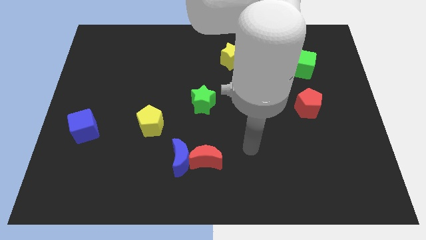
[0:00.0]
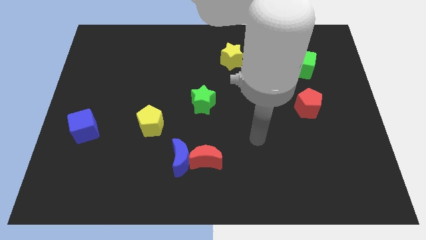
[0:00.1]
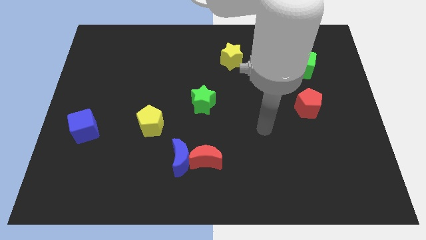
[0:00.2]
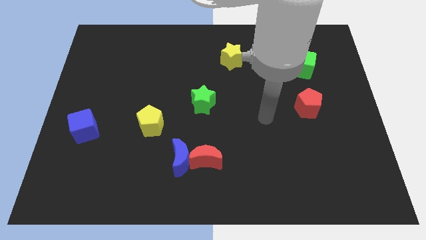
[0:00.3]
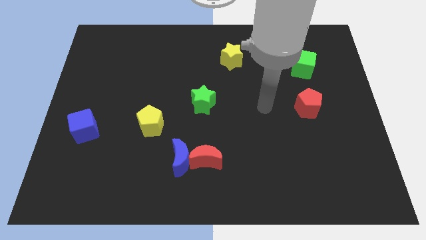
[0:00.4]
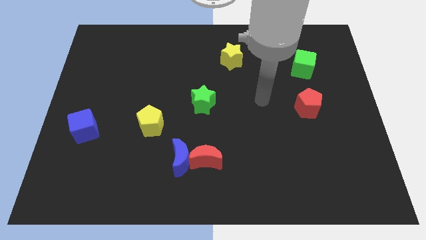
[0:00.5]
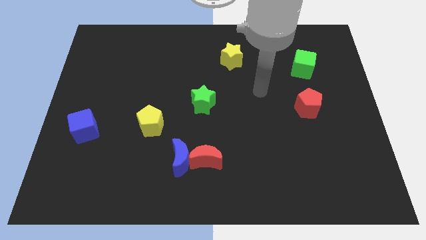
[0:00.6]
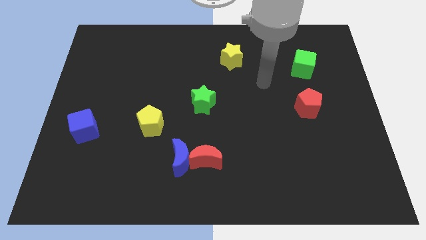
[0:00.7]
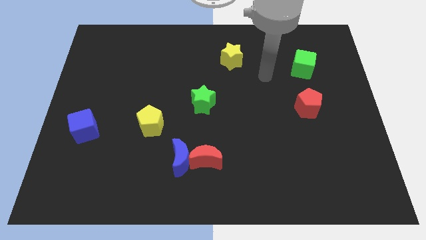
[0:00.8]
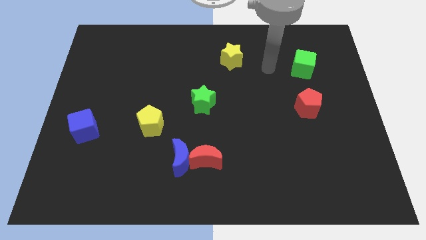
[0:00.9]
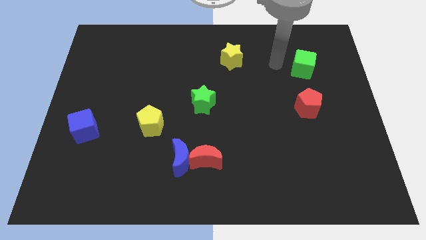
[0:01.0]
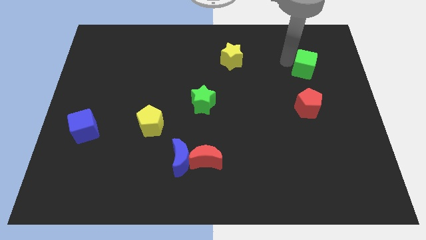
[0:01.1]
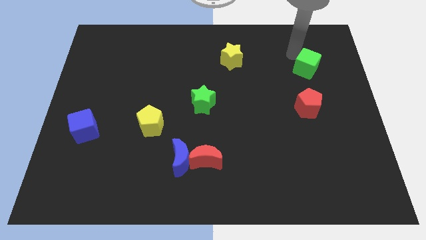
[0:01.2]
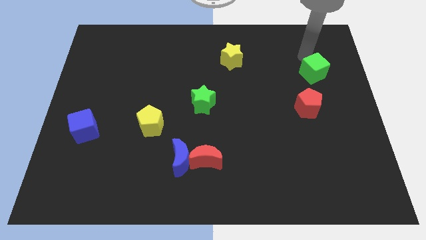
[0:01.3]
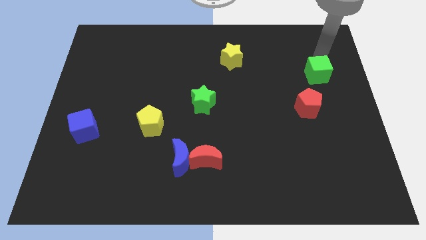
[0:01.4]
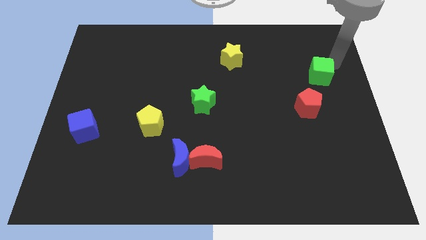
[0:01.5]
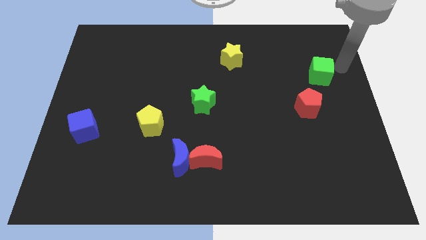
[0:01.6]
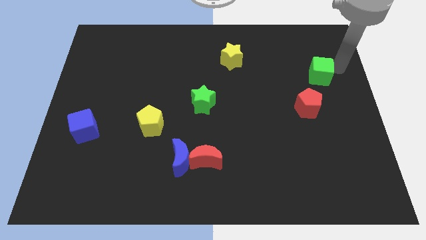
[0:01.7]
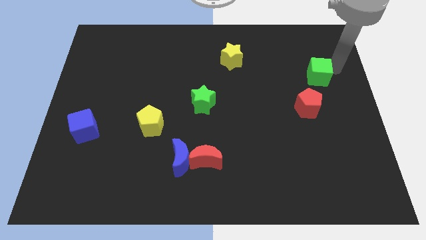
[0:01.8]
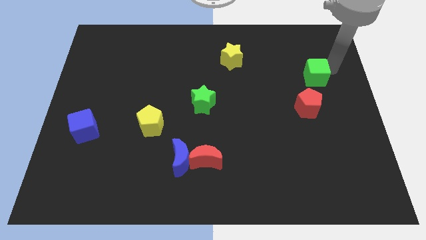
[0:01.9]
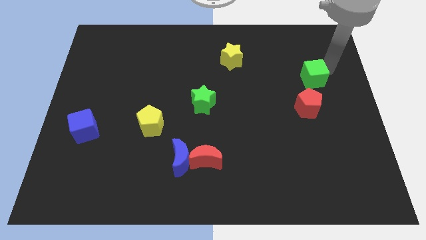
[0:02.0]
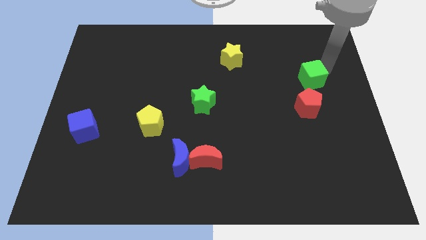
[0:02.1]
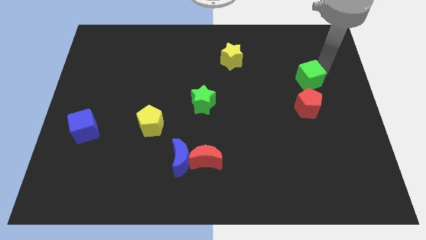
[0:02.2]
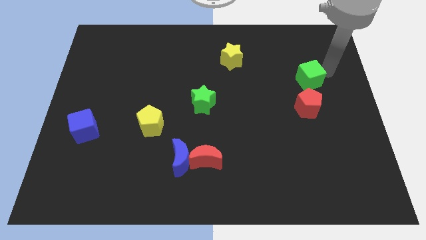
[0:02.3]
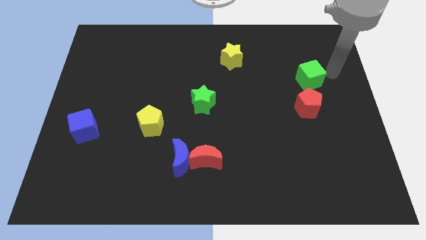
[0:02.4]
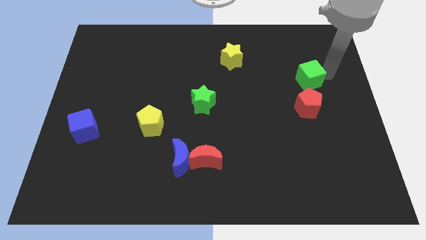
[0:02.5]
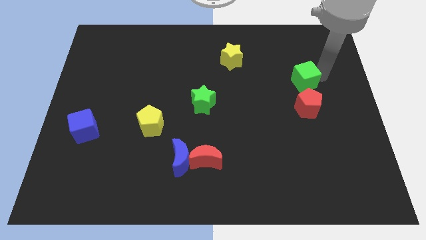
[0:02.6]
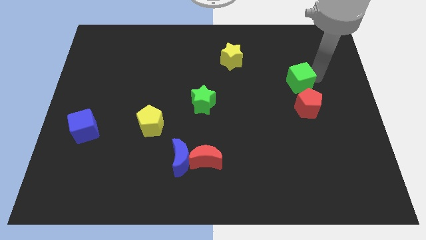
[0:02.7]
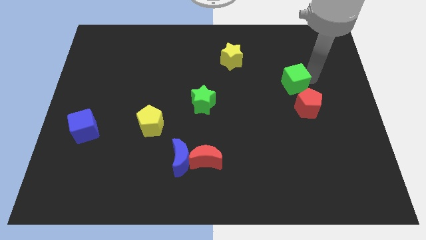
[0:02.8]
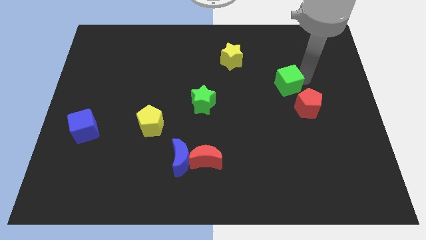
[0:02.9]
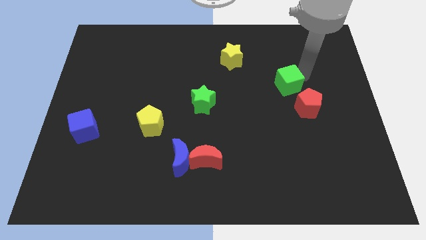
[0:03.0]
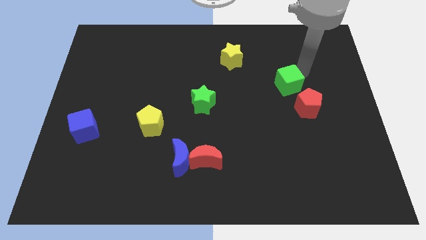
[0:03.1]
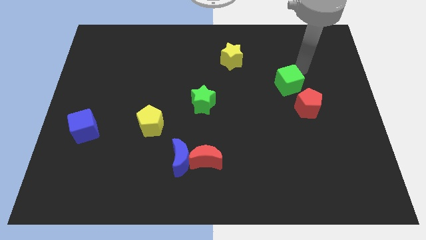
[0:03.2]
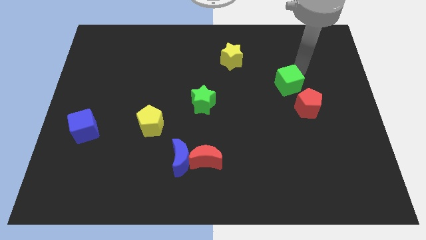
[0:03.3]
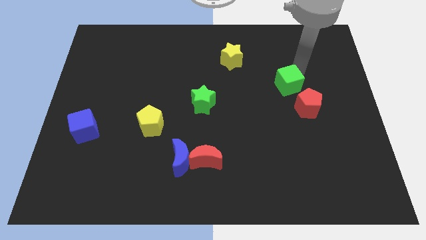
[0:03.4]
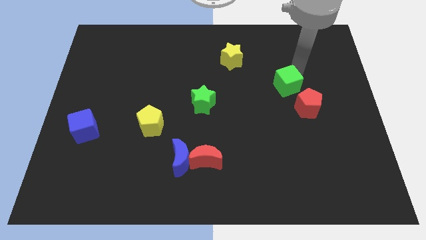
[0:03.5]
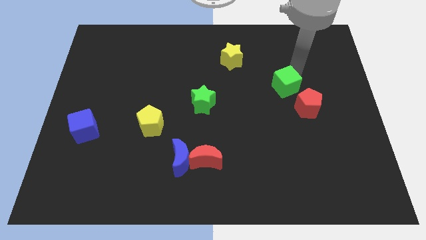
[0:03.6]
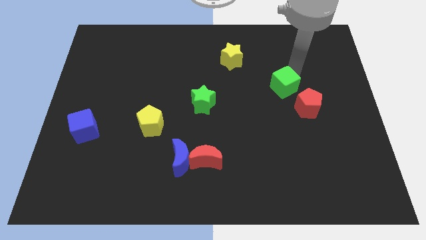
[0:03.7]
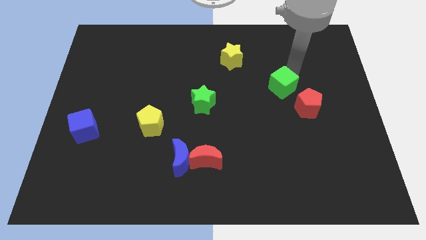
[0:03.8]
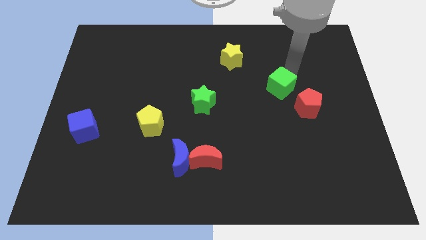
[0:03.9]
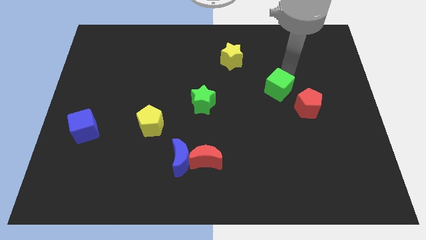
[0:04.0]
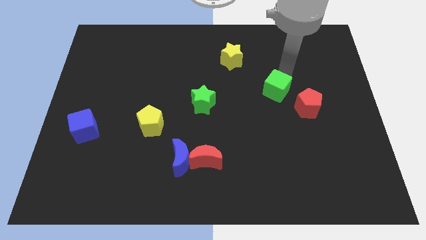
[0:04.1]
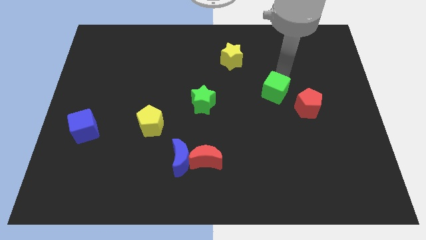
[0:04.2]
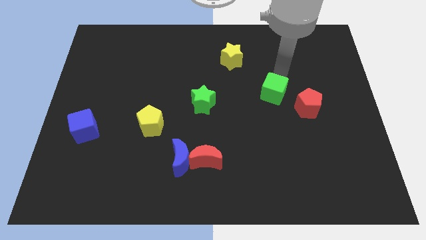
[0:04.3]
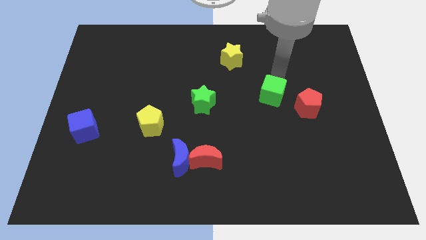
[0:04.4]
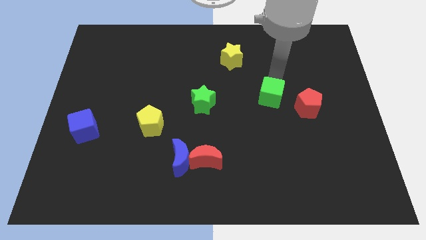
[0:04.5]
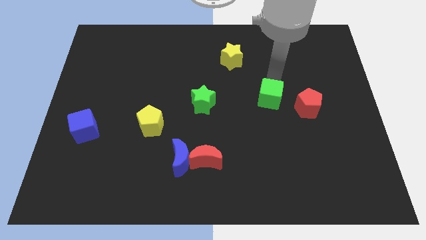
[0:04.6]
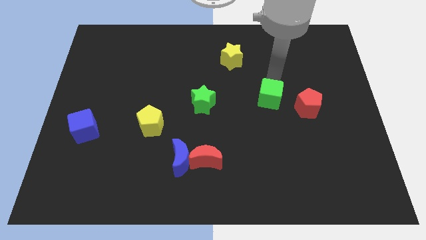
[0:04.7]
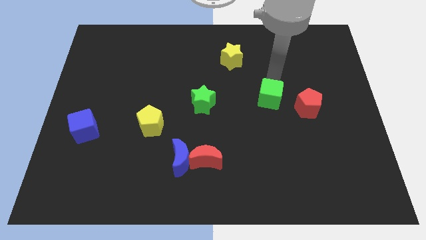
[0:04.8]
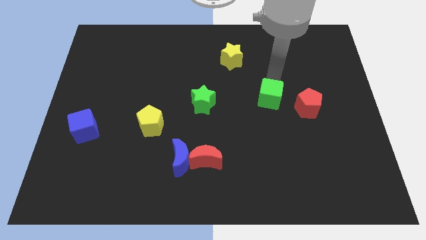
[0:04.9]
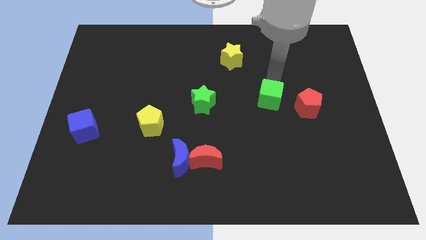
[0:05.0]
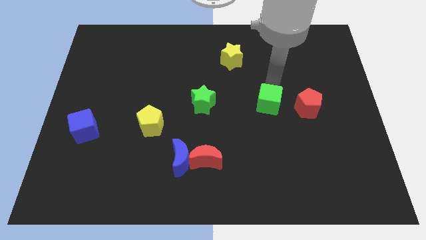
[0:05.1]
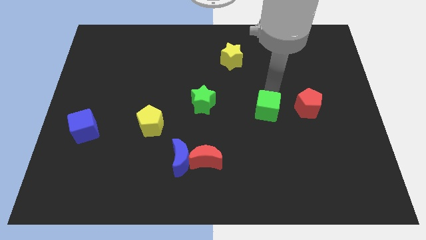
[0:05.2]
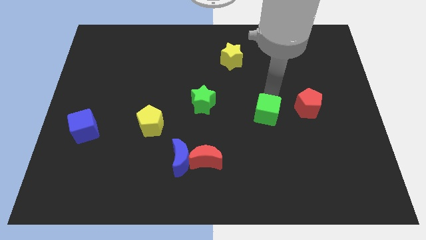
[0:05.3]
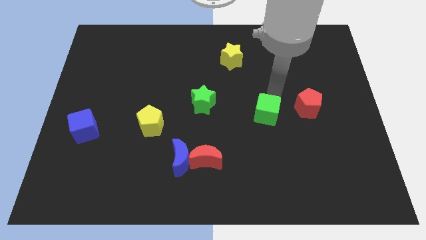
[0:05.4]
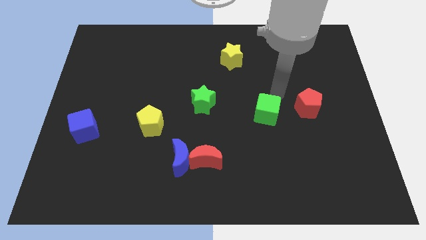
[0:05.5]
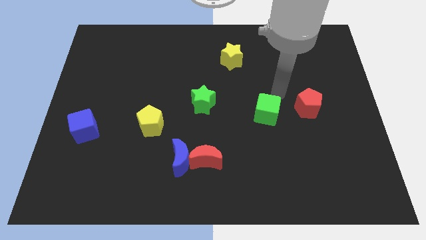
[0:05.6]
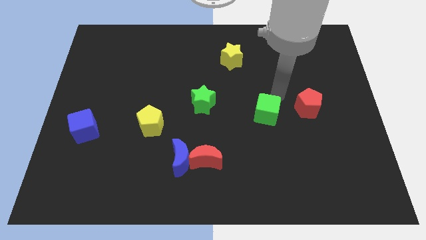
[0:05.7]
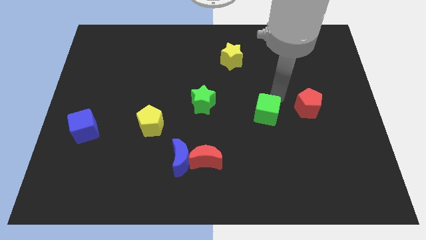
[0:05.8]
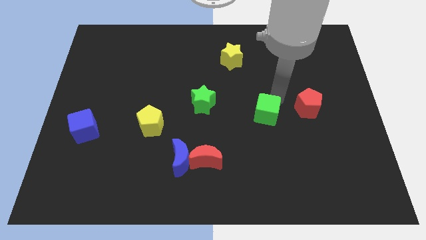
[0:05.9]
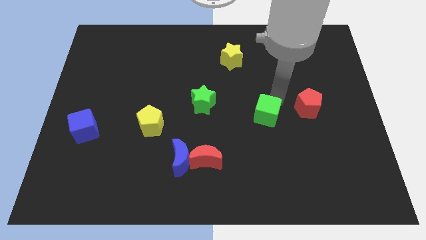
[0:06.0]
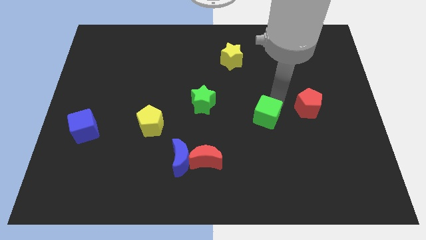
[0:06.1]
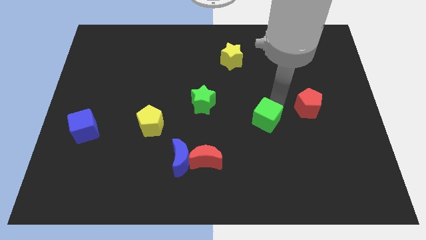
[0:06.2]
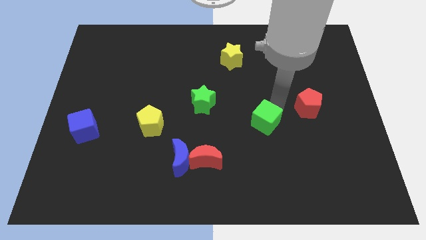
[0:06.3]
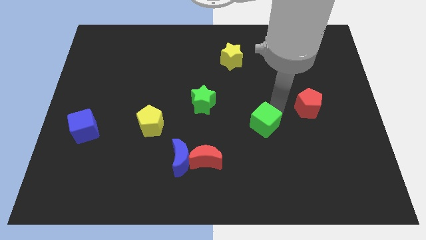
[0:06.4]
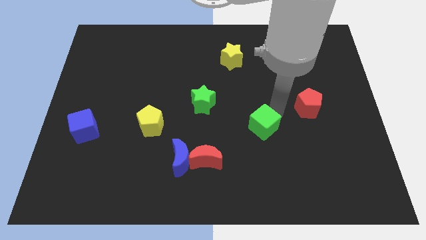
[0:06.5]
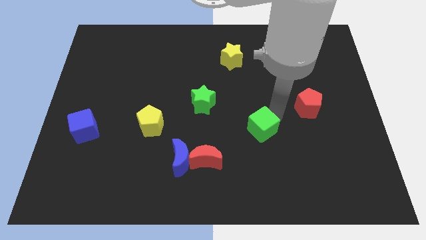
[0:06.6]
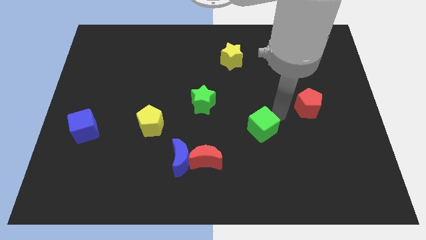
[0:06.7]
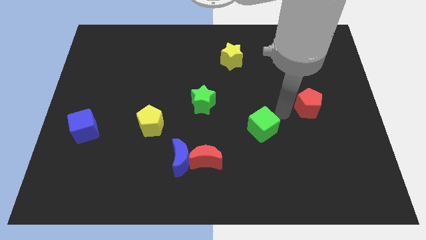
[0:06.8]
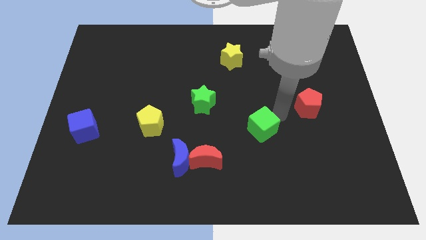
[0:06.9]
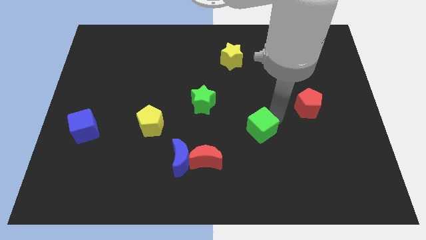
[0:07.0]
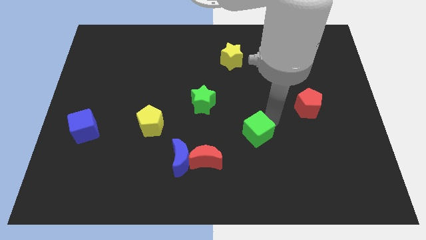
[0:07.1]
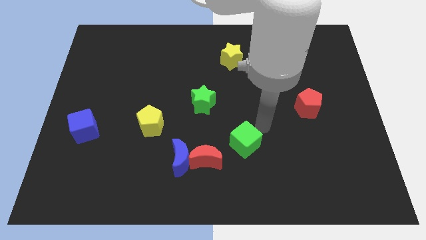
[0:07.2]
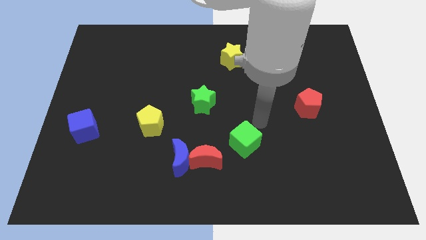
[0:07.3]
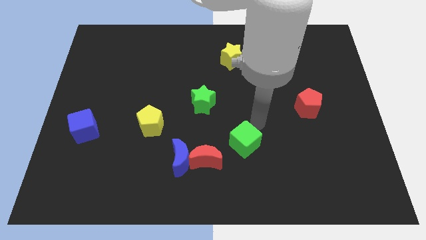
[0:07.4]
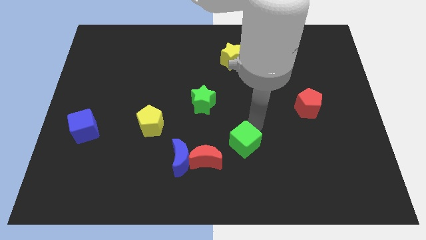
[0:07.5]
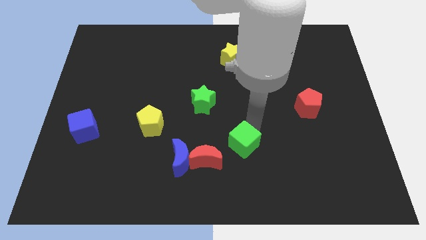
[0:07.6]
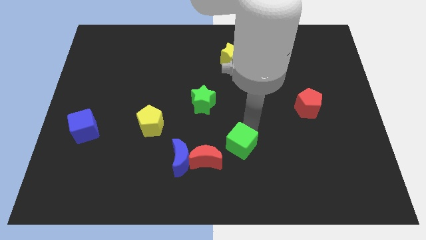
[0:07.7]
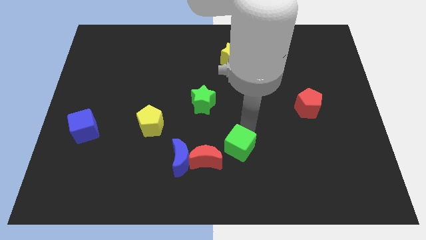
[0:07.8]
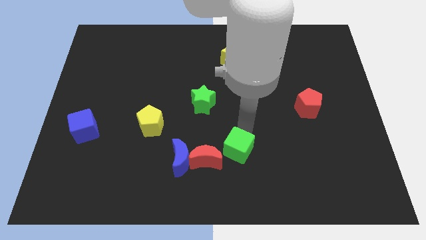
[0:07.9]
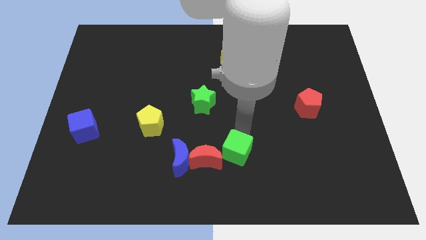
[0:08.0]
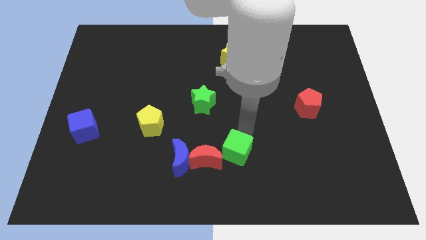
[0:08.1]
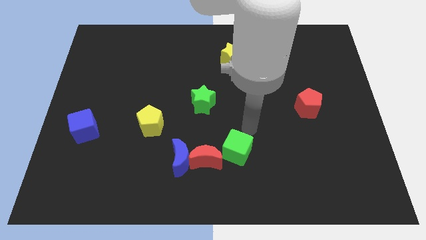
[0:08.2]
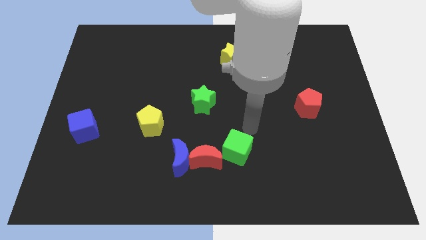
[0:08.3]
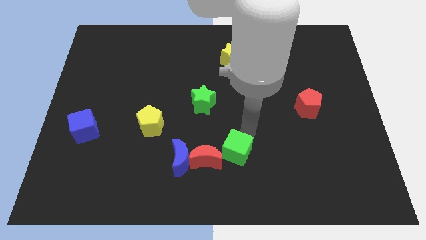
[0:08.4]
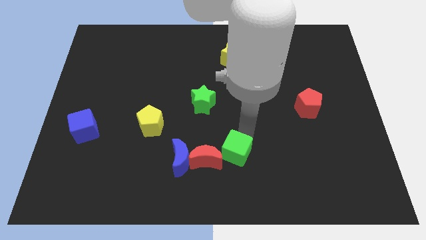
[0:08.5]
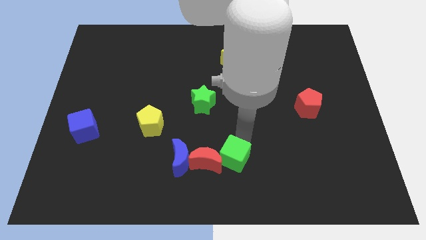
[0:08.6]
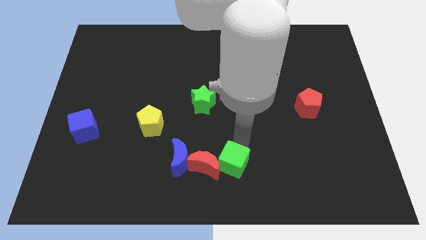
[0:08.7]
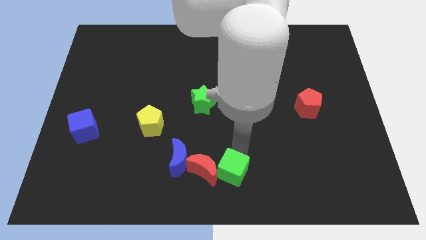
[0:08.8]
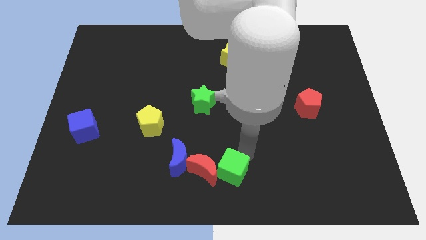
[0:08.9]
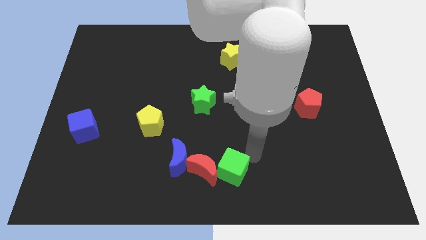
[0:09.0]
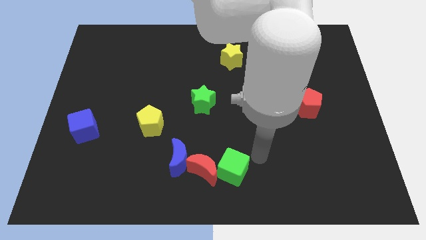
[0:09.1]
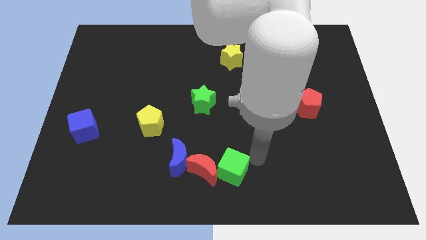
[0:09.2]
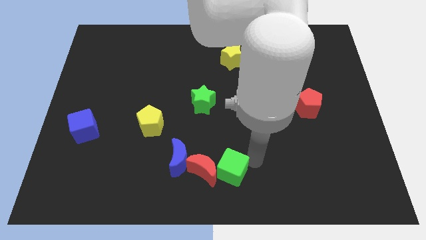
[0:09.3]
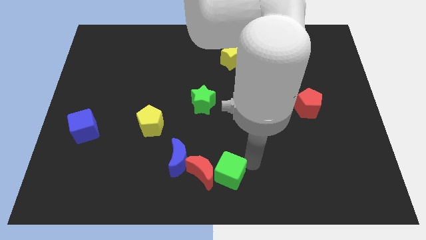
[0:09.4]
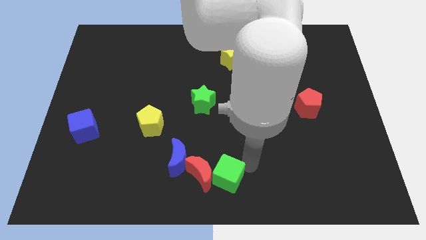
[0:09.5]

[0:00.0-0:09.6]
slide the green cube diagonally down and to the right of the blue moon
